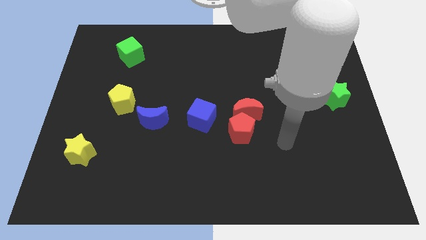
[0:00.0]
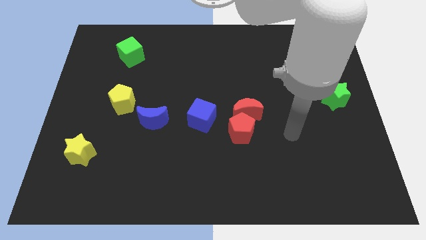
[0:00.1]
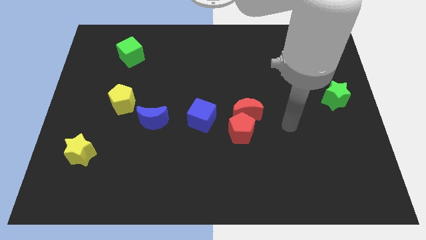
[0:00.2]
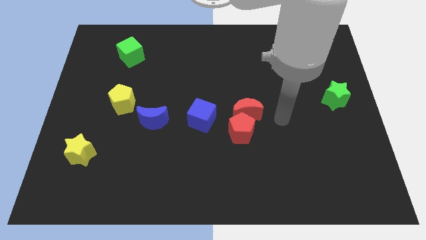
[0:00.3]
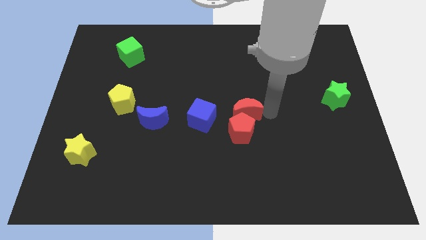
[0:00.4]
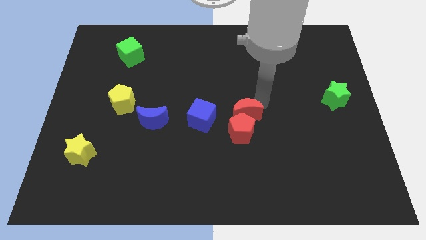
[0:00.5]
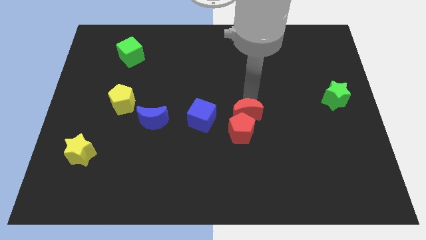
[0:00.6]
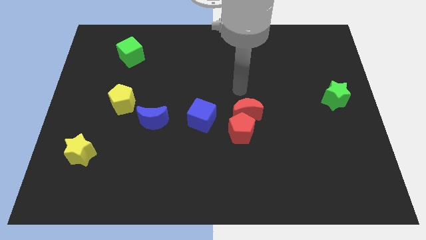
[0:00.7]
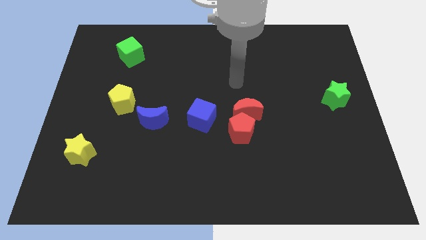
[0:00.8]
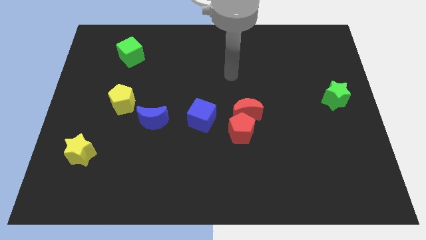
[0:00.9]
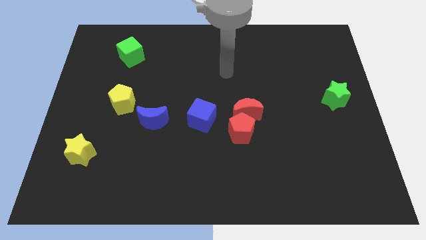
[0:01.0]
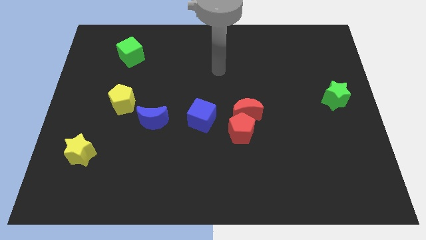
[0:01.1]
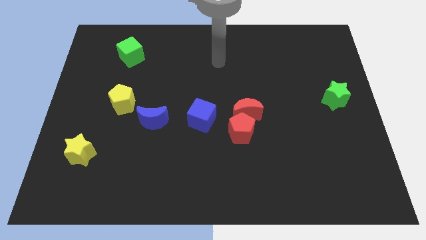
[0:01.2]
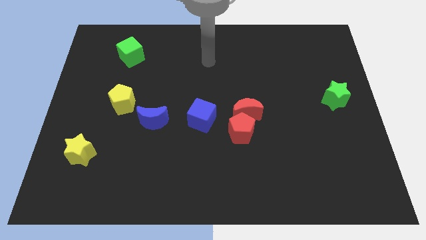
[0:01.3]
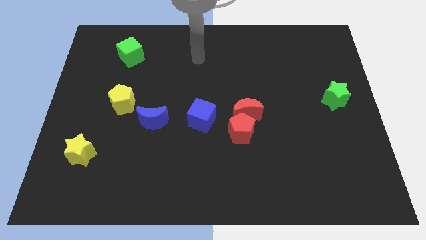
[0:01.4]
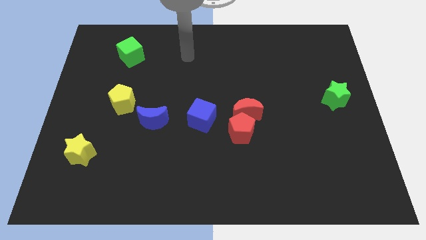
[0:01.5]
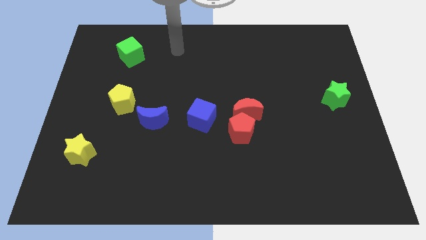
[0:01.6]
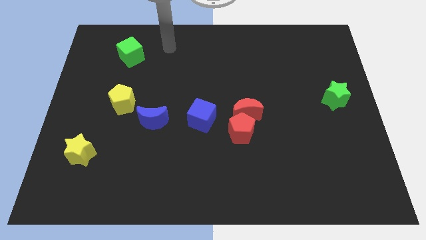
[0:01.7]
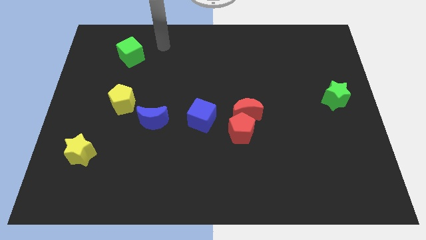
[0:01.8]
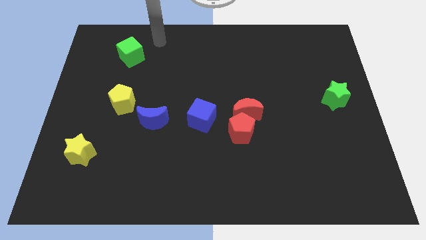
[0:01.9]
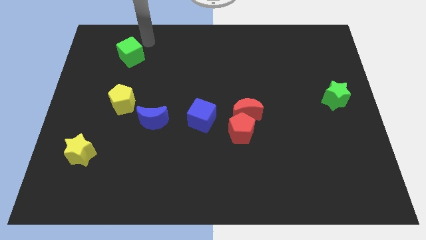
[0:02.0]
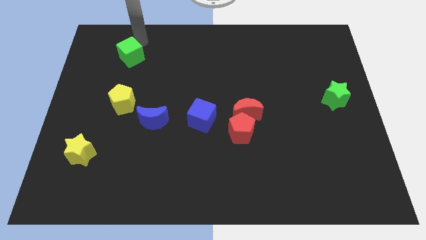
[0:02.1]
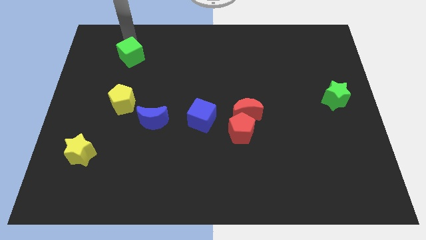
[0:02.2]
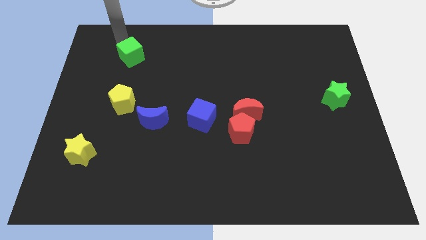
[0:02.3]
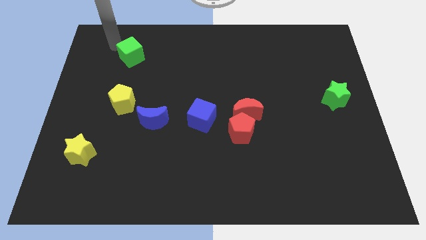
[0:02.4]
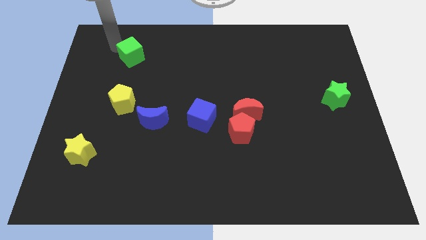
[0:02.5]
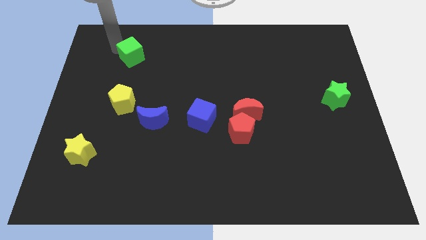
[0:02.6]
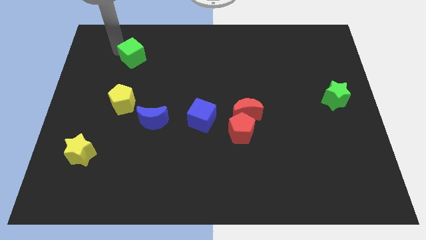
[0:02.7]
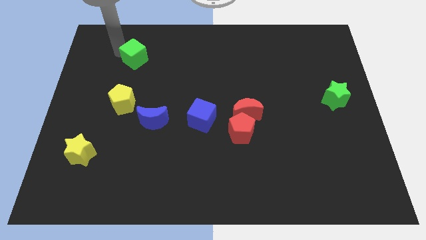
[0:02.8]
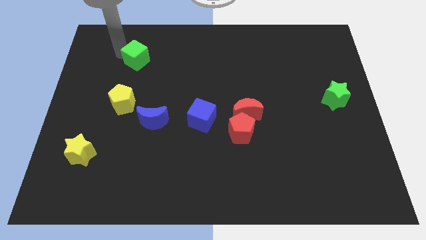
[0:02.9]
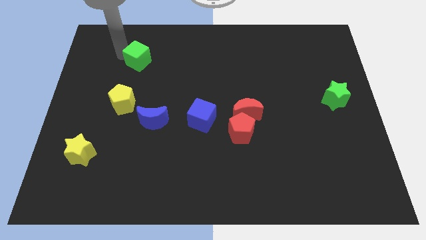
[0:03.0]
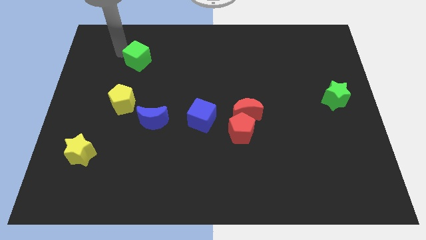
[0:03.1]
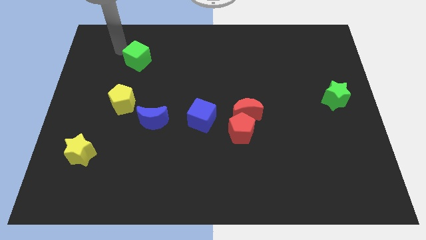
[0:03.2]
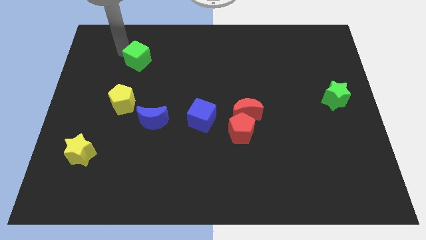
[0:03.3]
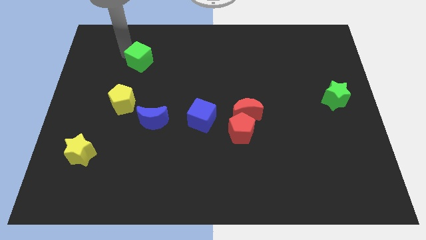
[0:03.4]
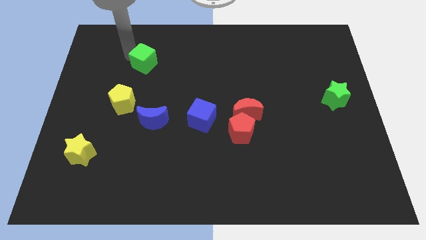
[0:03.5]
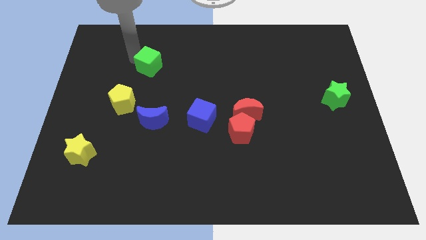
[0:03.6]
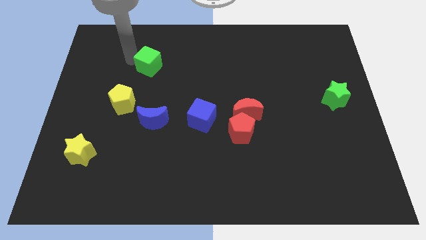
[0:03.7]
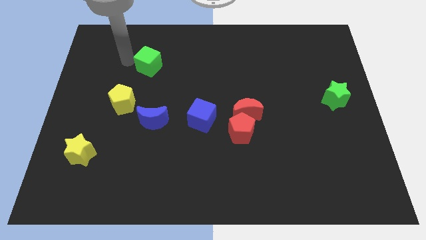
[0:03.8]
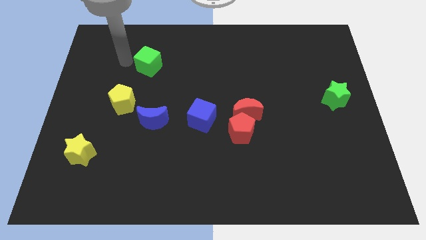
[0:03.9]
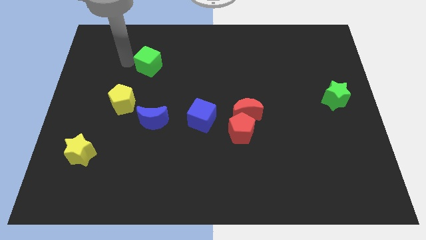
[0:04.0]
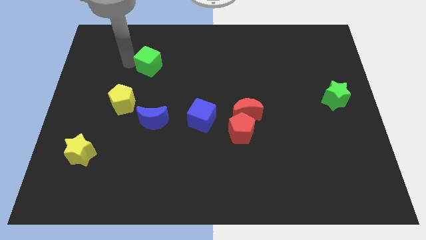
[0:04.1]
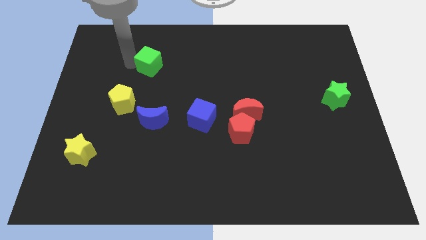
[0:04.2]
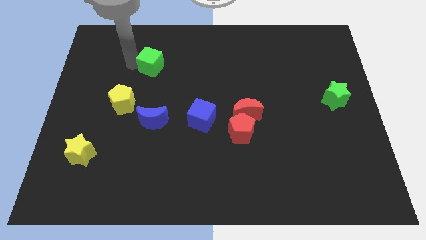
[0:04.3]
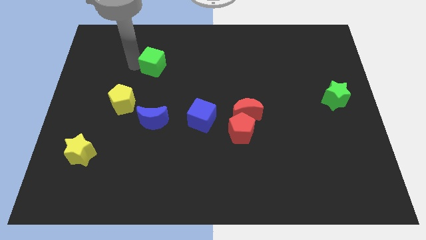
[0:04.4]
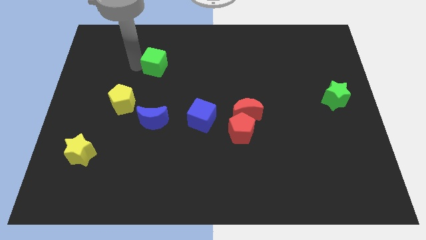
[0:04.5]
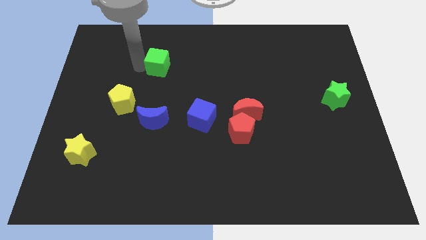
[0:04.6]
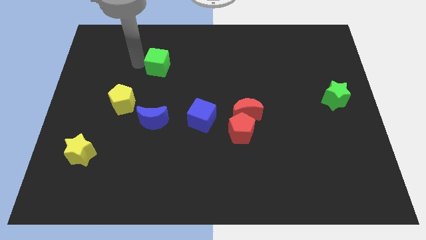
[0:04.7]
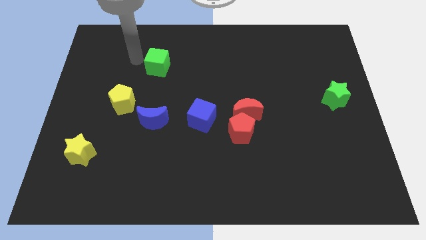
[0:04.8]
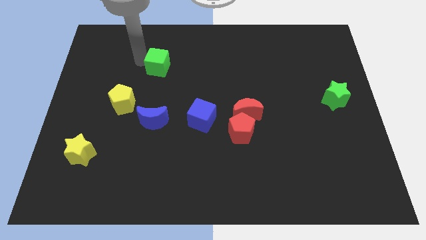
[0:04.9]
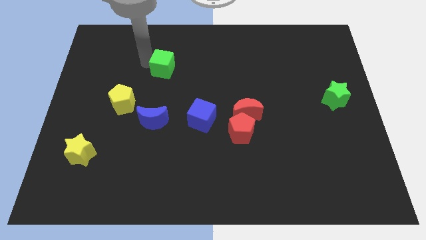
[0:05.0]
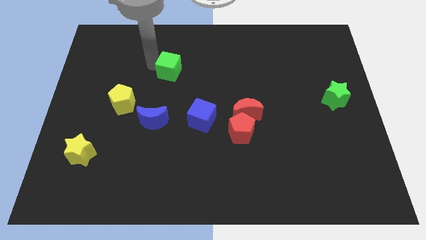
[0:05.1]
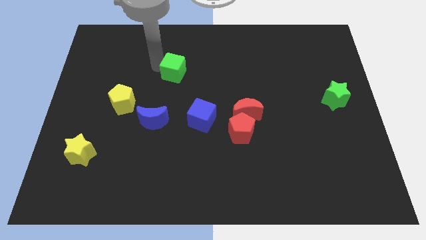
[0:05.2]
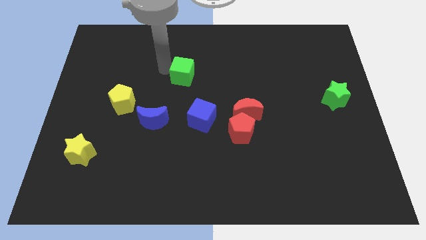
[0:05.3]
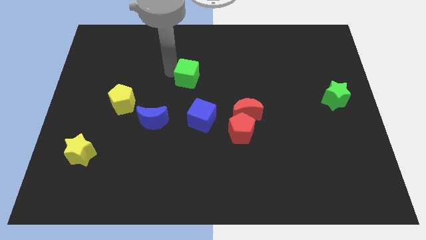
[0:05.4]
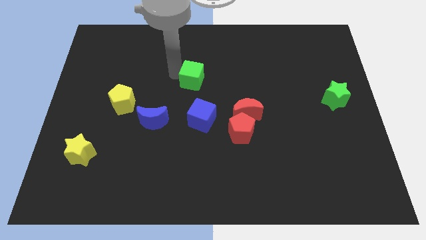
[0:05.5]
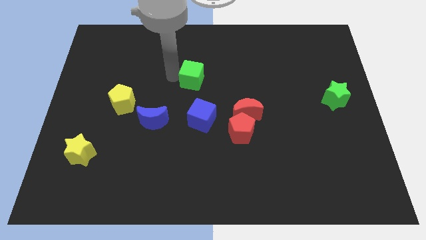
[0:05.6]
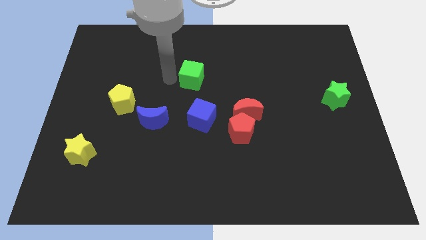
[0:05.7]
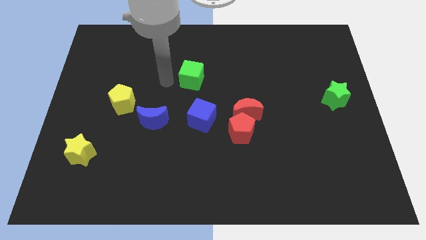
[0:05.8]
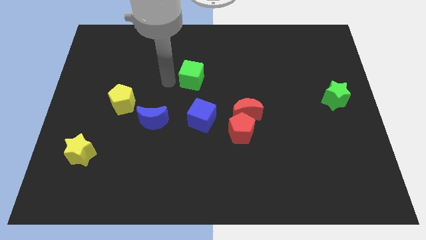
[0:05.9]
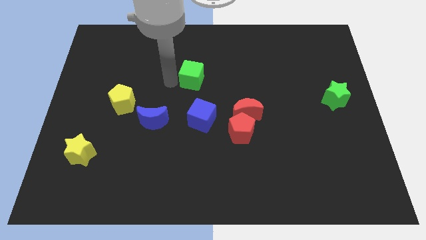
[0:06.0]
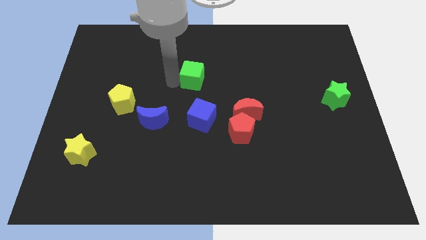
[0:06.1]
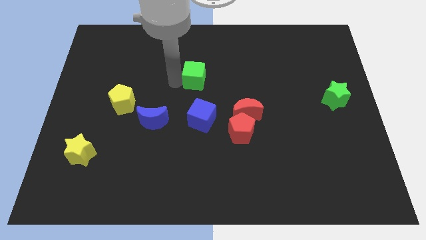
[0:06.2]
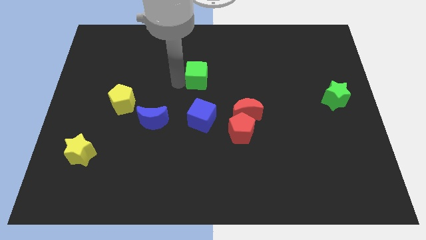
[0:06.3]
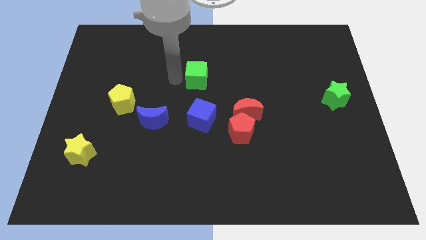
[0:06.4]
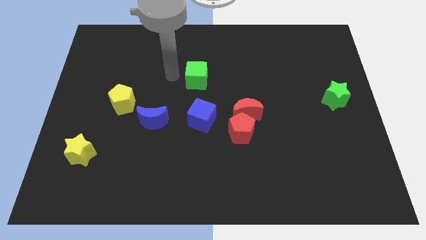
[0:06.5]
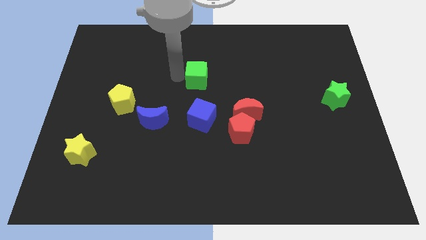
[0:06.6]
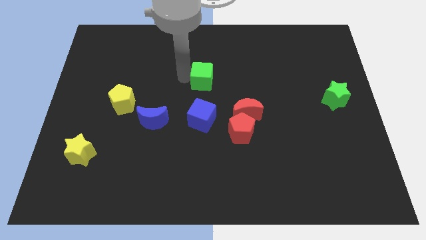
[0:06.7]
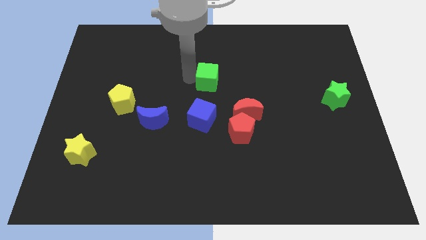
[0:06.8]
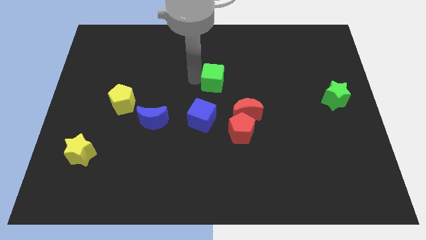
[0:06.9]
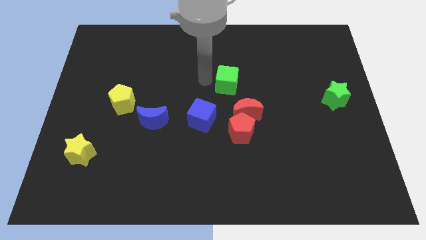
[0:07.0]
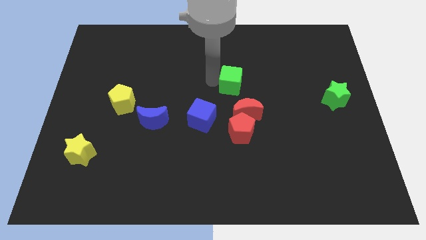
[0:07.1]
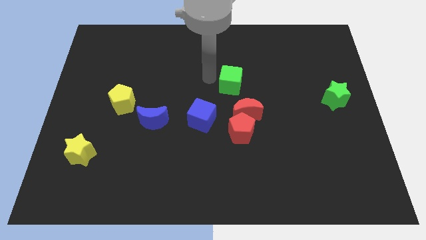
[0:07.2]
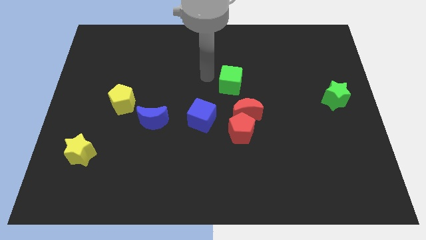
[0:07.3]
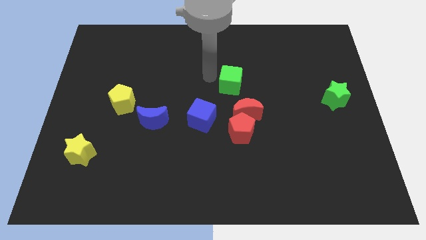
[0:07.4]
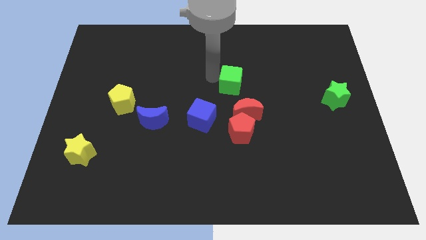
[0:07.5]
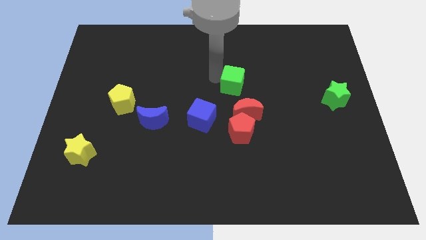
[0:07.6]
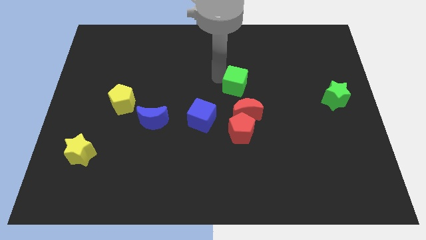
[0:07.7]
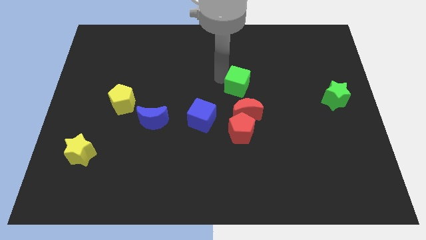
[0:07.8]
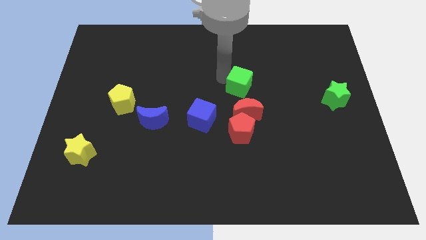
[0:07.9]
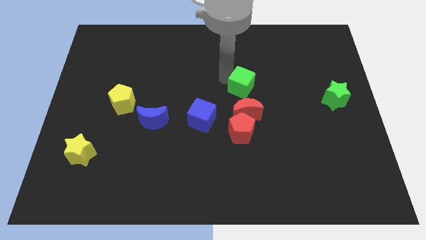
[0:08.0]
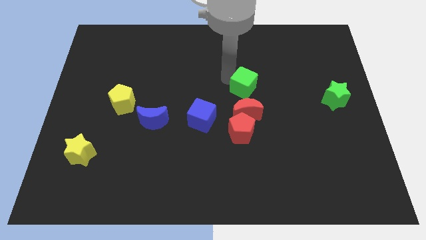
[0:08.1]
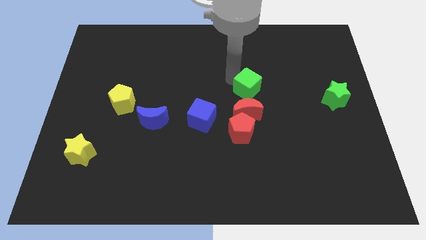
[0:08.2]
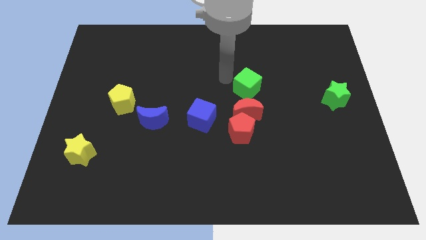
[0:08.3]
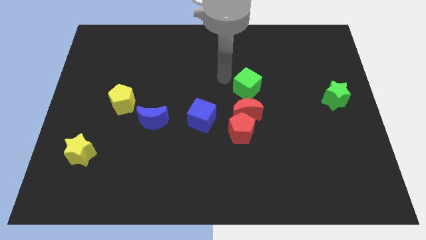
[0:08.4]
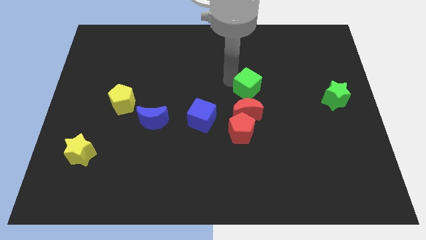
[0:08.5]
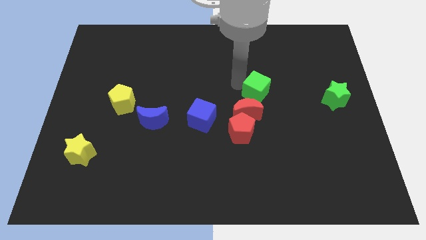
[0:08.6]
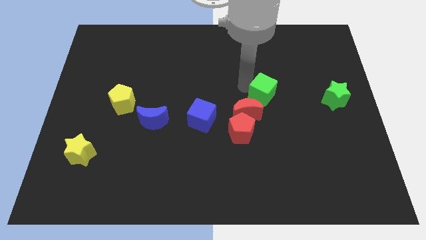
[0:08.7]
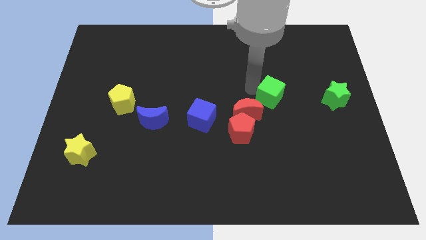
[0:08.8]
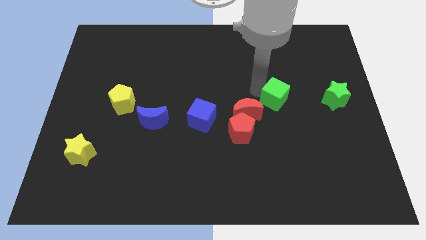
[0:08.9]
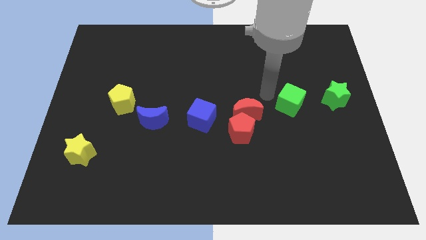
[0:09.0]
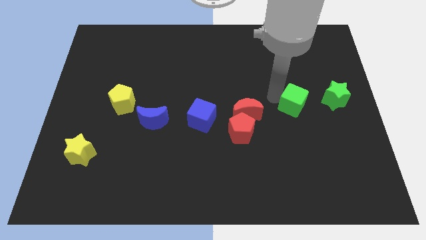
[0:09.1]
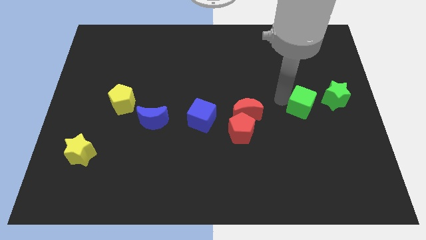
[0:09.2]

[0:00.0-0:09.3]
push the green cube diagonally down and to the left of the green star
